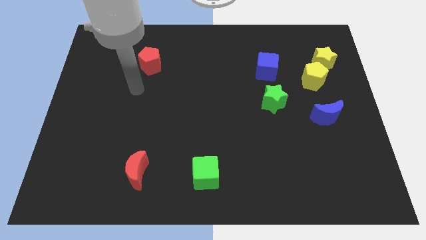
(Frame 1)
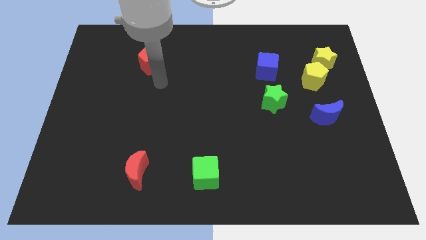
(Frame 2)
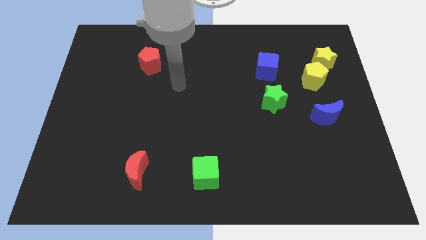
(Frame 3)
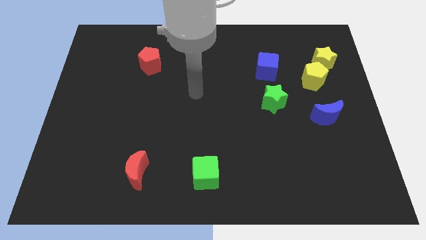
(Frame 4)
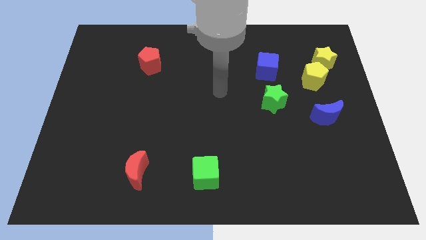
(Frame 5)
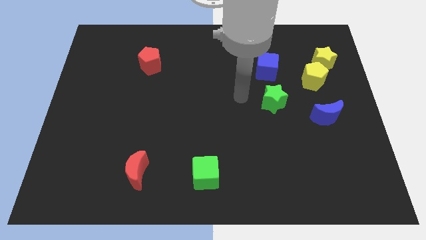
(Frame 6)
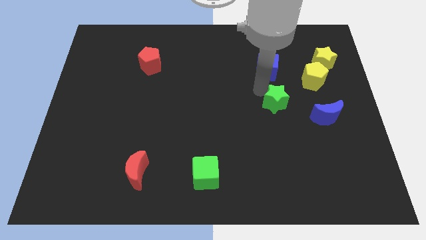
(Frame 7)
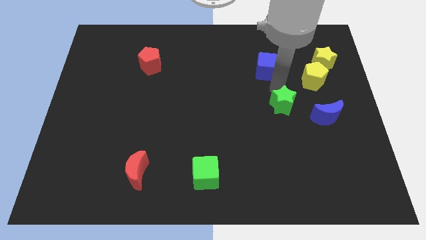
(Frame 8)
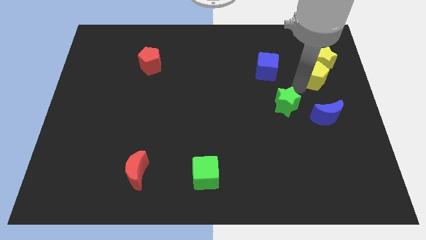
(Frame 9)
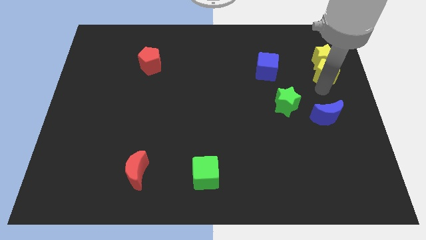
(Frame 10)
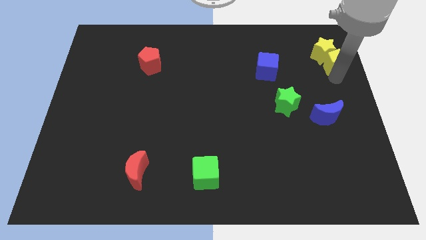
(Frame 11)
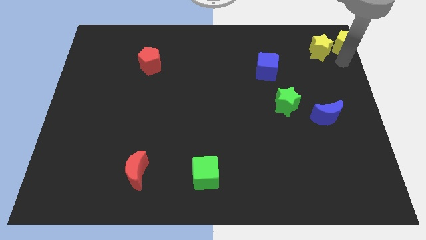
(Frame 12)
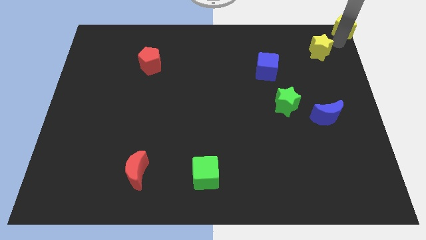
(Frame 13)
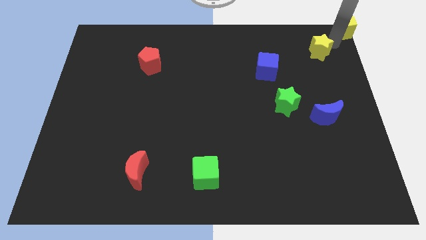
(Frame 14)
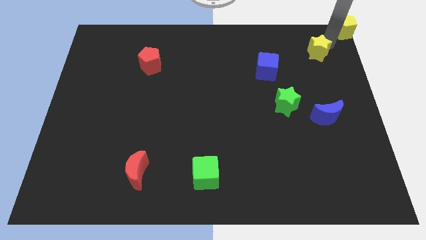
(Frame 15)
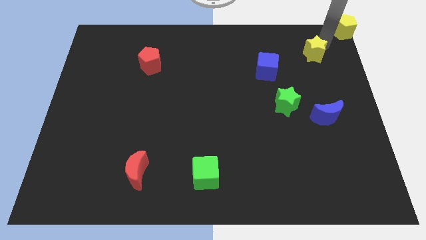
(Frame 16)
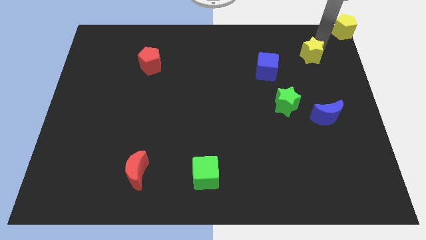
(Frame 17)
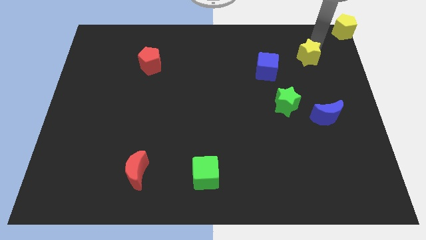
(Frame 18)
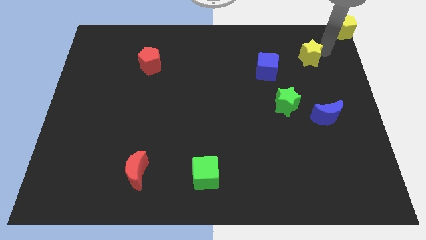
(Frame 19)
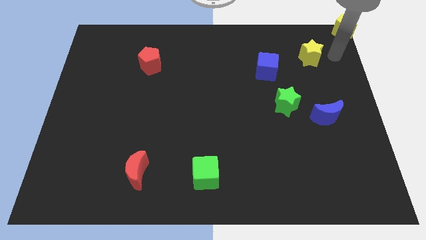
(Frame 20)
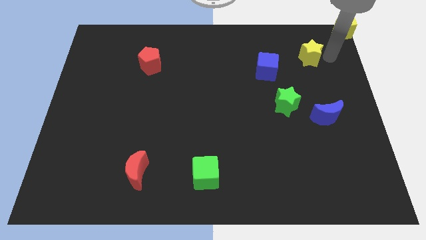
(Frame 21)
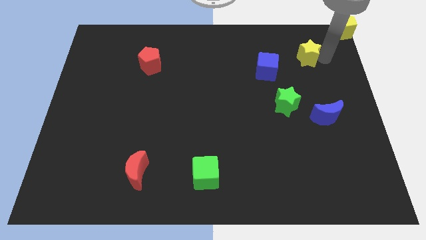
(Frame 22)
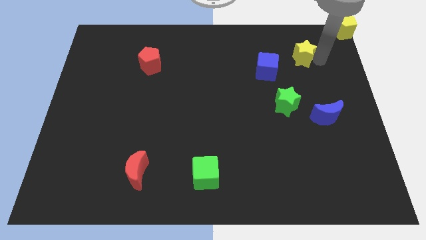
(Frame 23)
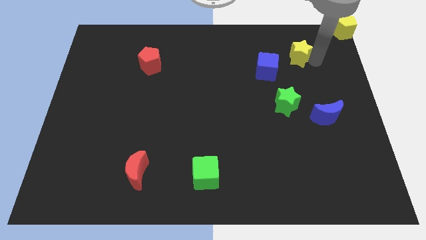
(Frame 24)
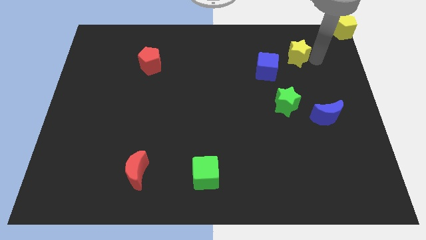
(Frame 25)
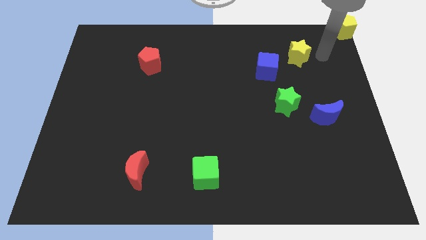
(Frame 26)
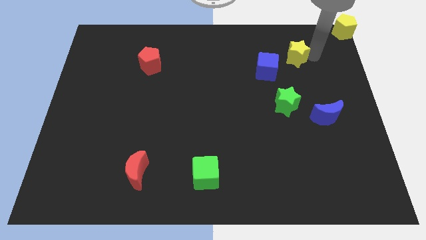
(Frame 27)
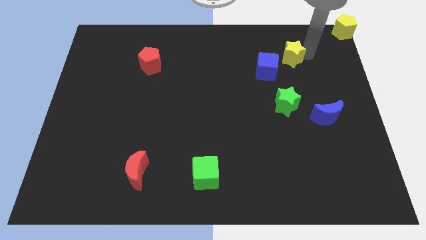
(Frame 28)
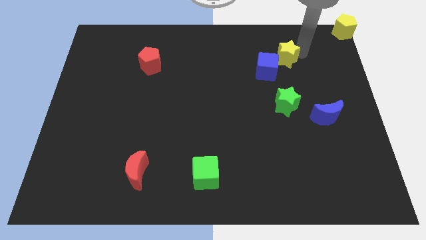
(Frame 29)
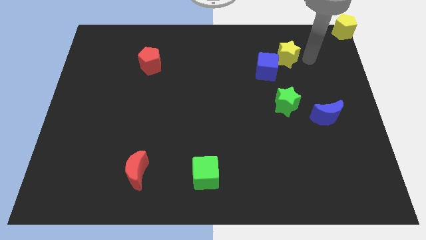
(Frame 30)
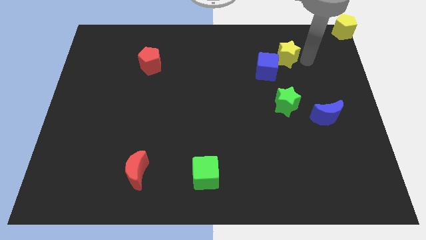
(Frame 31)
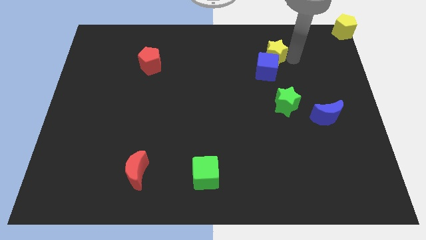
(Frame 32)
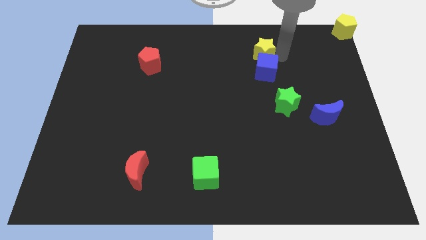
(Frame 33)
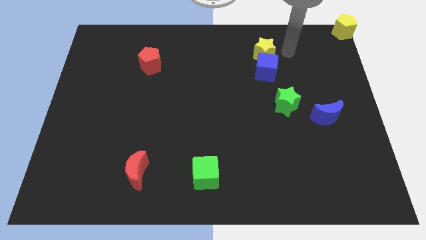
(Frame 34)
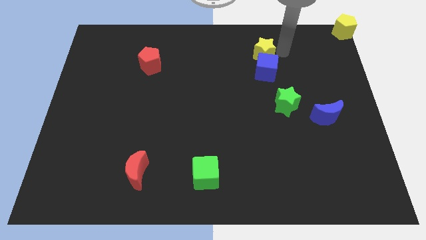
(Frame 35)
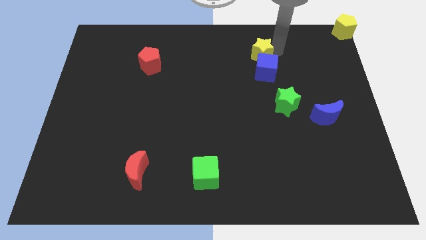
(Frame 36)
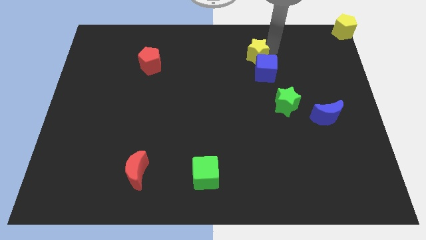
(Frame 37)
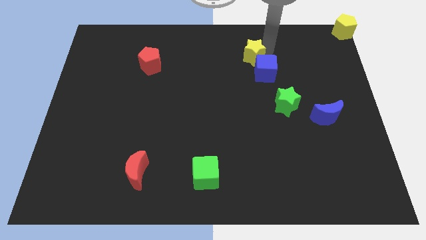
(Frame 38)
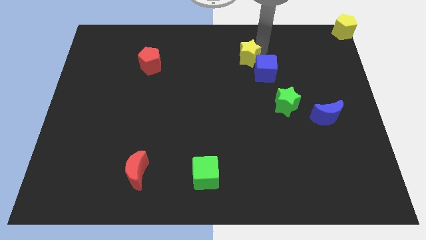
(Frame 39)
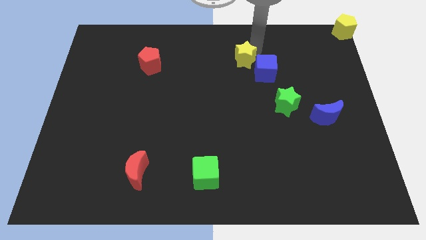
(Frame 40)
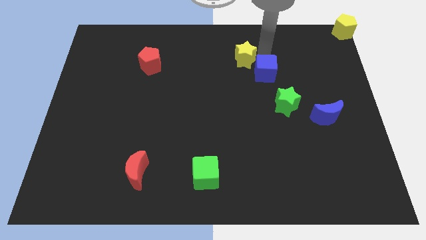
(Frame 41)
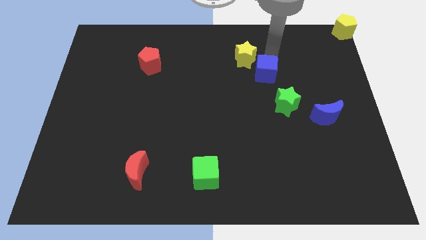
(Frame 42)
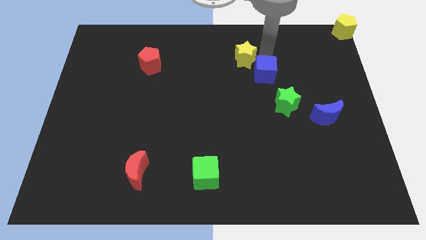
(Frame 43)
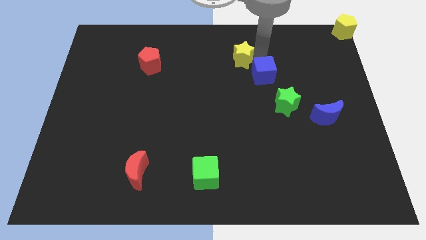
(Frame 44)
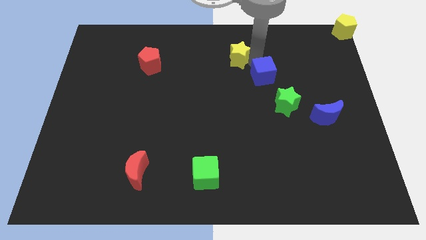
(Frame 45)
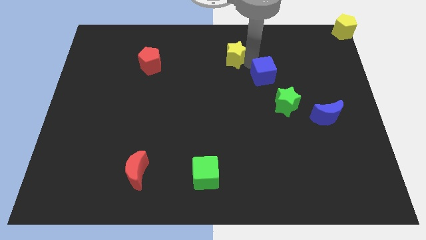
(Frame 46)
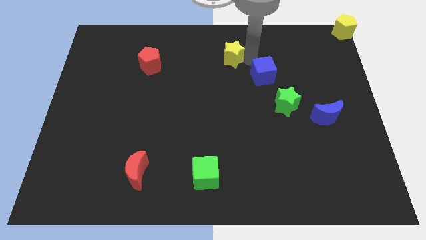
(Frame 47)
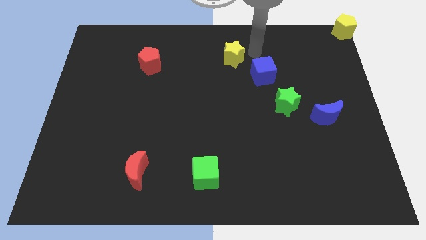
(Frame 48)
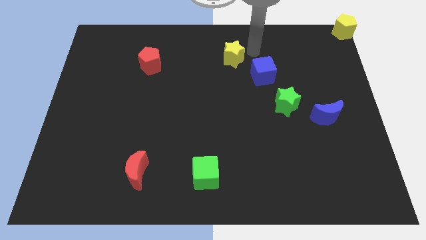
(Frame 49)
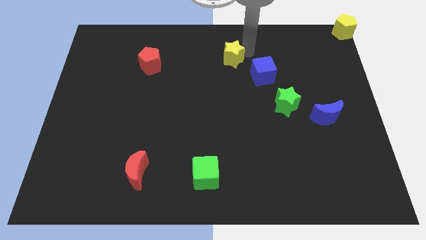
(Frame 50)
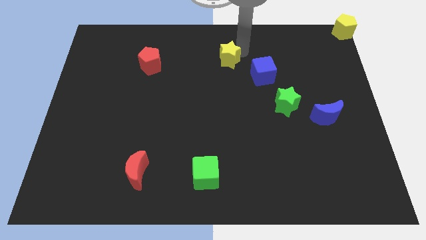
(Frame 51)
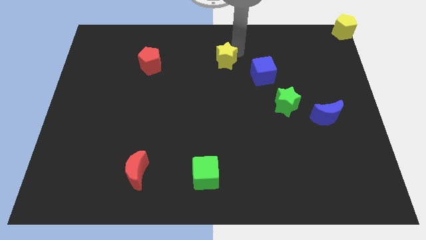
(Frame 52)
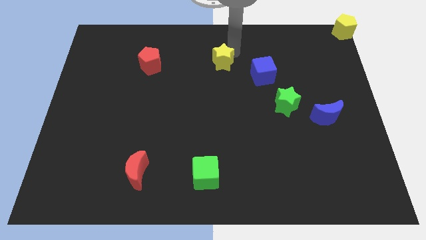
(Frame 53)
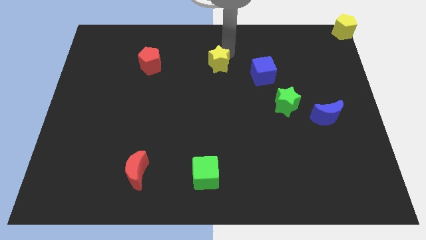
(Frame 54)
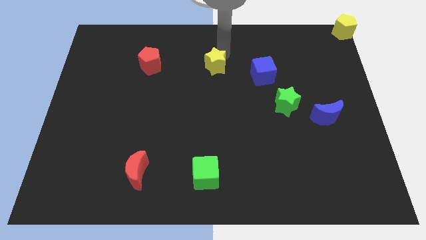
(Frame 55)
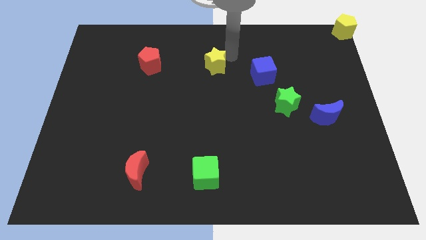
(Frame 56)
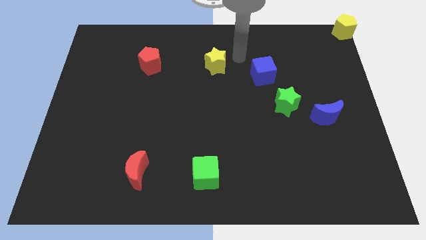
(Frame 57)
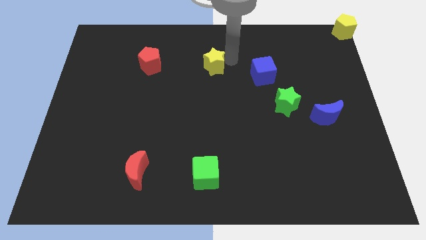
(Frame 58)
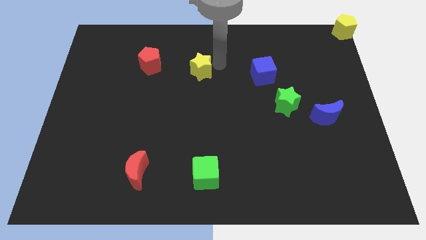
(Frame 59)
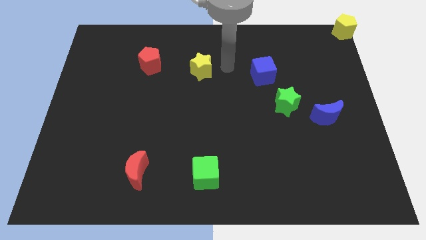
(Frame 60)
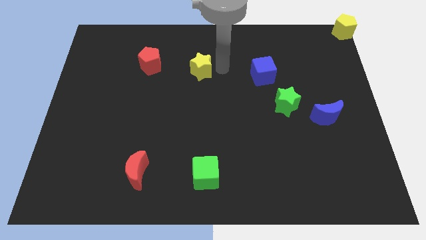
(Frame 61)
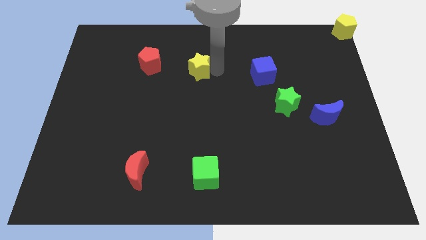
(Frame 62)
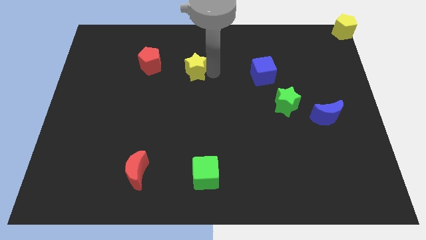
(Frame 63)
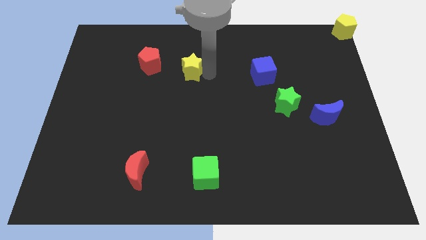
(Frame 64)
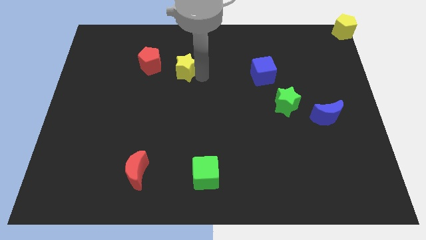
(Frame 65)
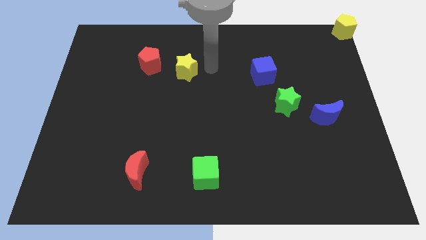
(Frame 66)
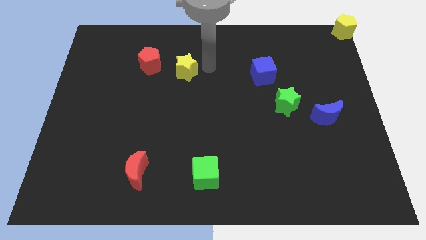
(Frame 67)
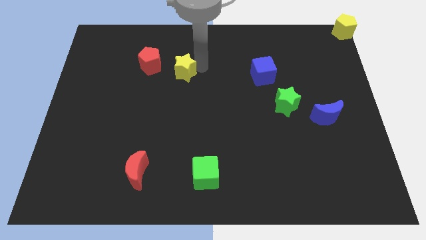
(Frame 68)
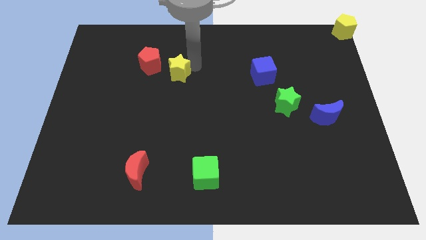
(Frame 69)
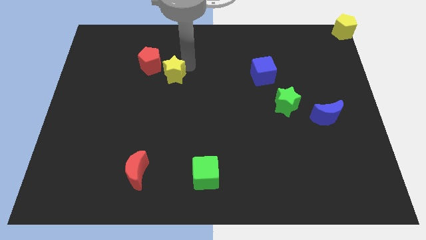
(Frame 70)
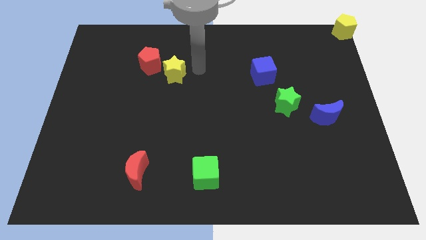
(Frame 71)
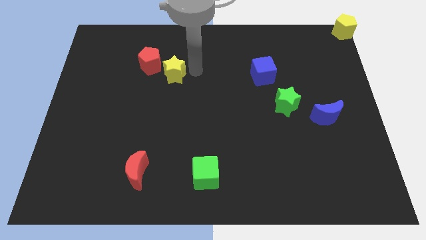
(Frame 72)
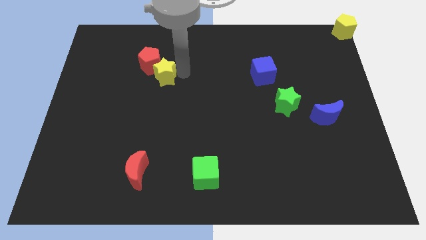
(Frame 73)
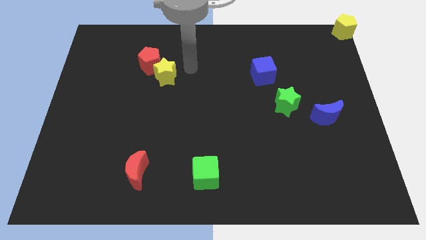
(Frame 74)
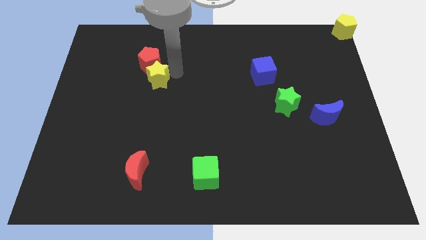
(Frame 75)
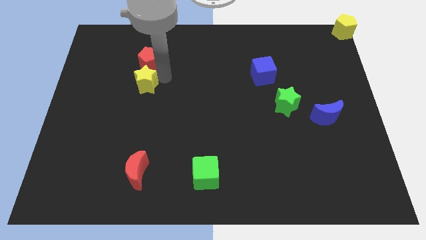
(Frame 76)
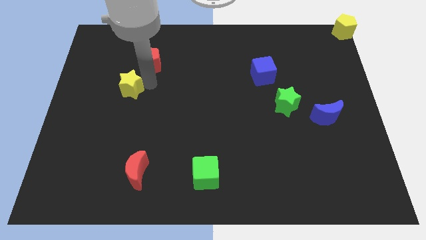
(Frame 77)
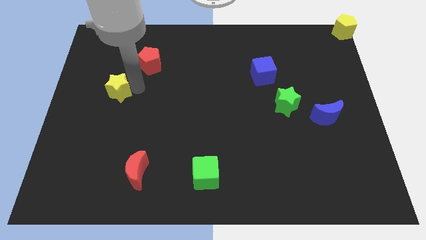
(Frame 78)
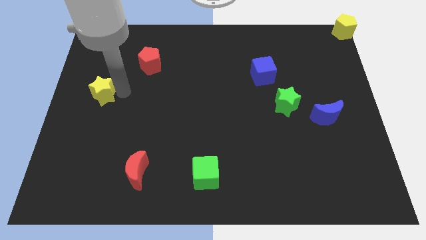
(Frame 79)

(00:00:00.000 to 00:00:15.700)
put the yellow star to the left side of the board
